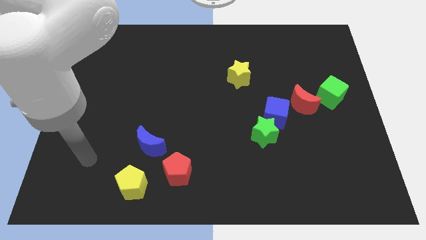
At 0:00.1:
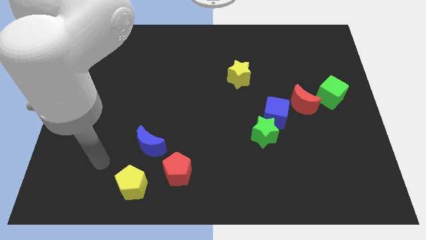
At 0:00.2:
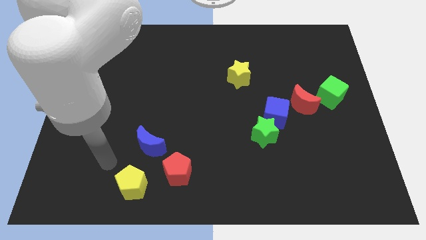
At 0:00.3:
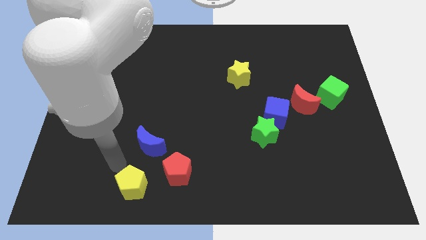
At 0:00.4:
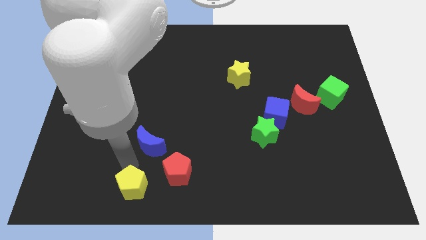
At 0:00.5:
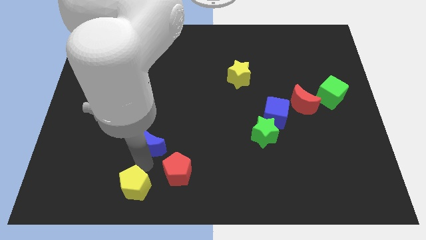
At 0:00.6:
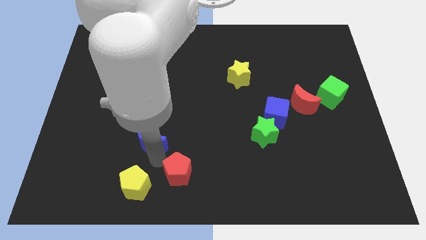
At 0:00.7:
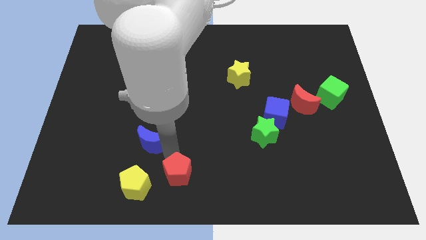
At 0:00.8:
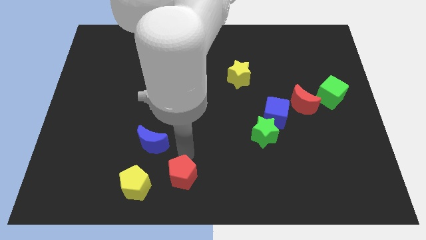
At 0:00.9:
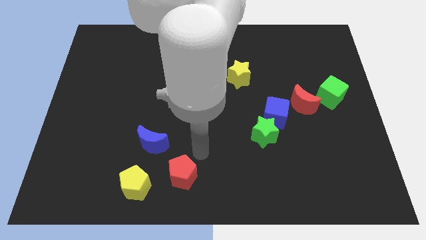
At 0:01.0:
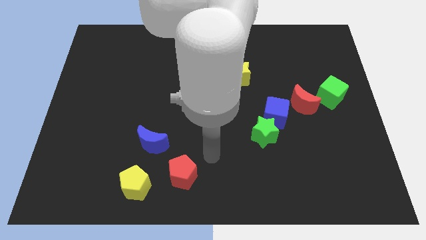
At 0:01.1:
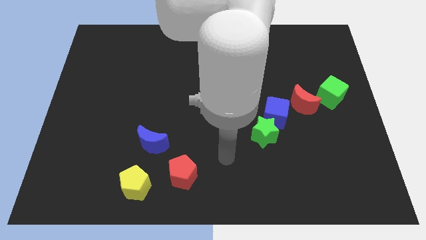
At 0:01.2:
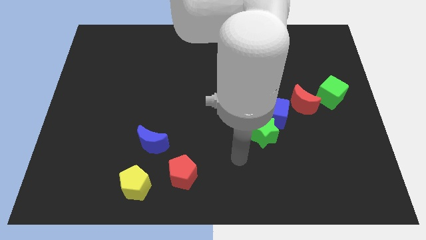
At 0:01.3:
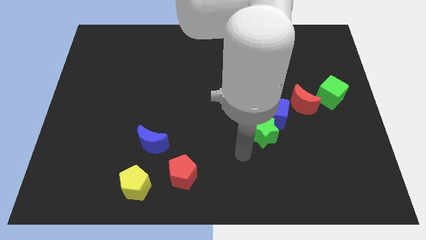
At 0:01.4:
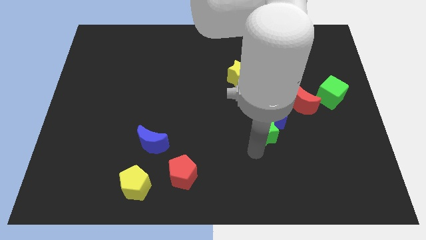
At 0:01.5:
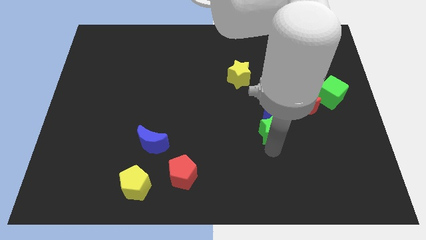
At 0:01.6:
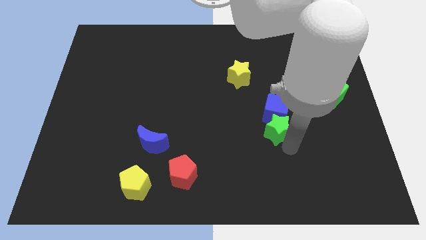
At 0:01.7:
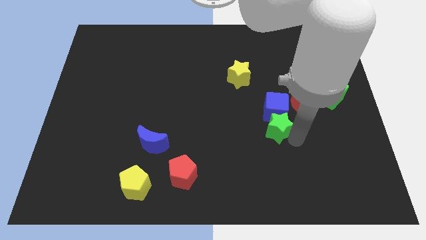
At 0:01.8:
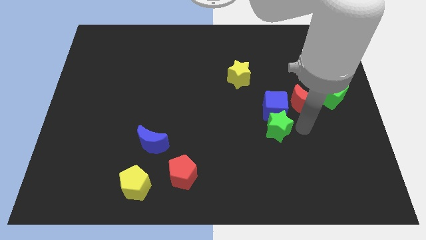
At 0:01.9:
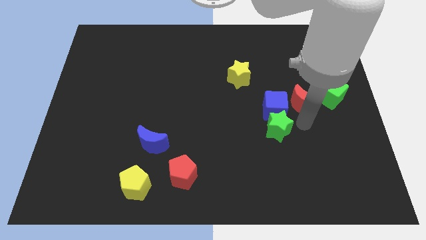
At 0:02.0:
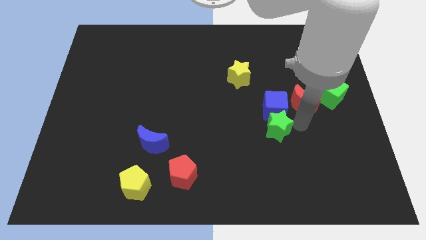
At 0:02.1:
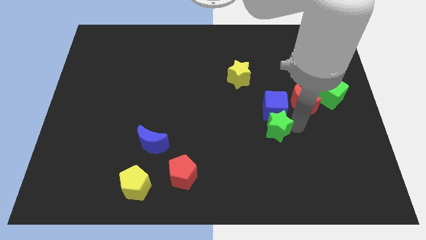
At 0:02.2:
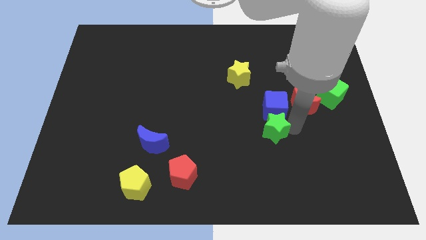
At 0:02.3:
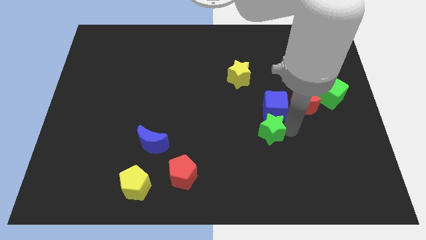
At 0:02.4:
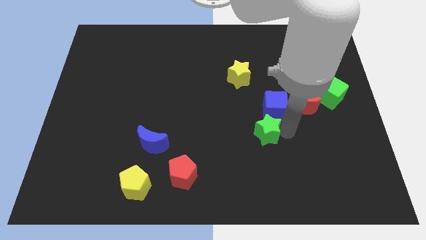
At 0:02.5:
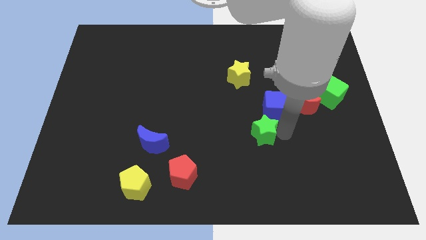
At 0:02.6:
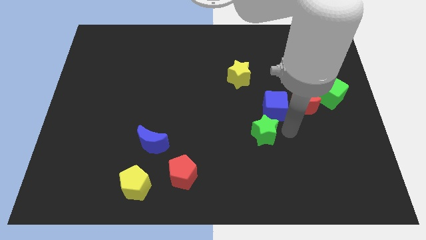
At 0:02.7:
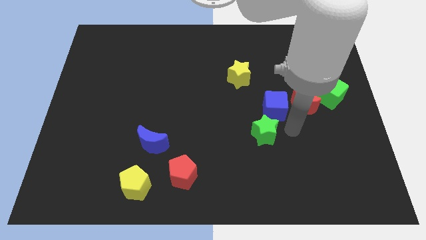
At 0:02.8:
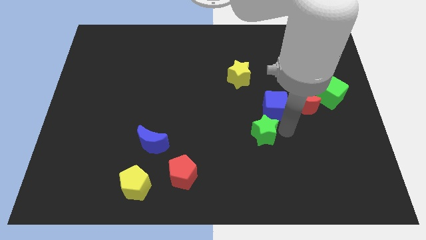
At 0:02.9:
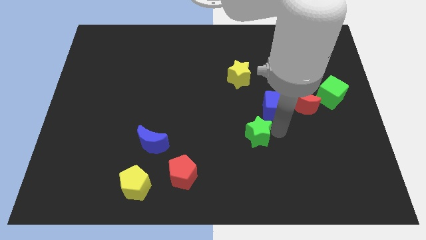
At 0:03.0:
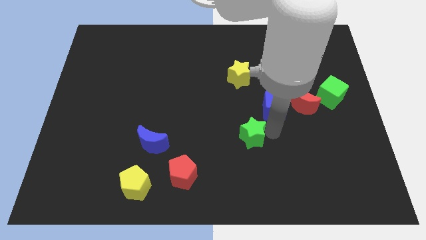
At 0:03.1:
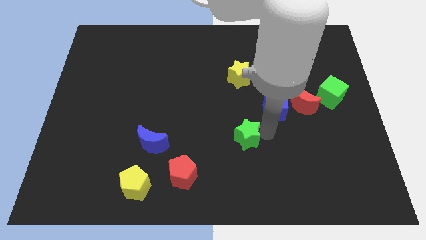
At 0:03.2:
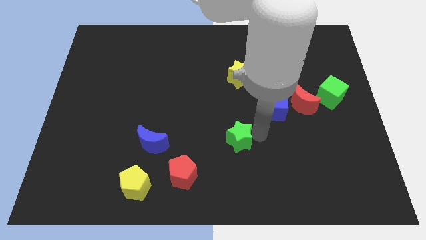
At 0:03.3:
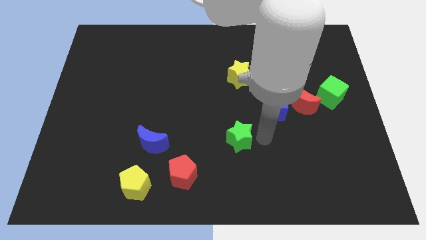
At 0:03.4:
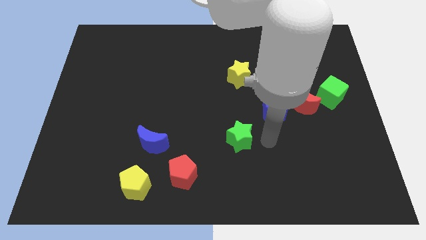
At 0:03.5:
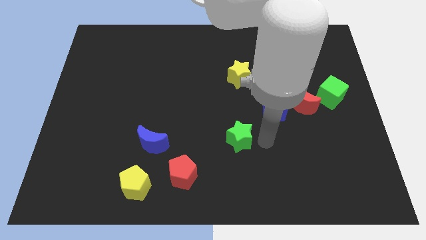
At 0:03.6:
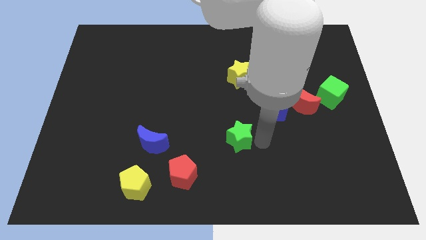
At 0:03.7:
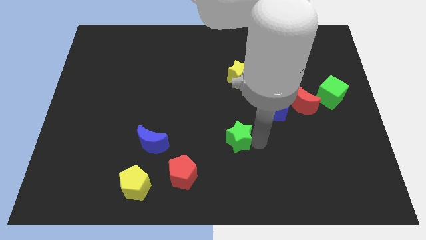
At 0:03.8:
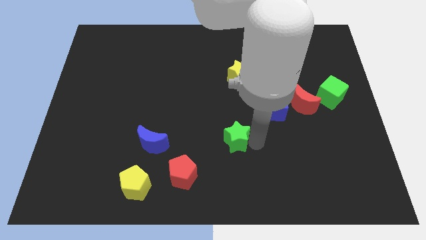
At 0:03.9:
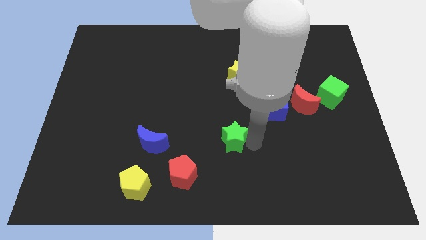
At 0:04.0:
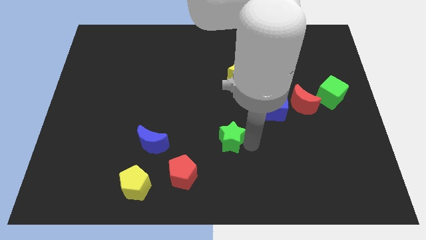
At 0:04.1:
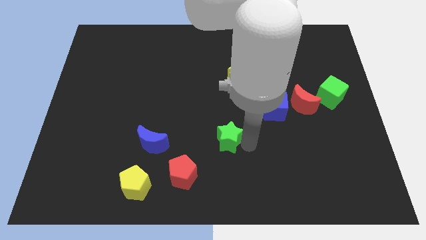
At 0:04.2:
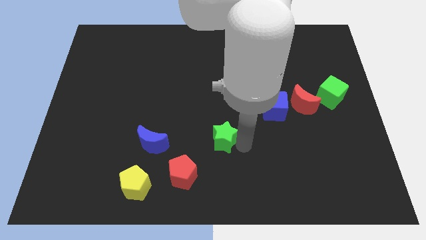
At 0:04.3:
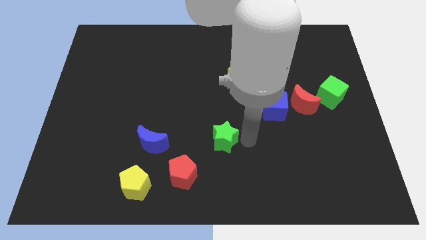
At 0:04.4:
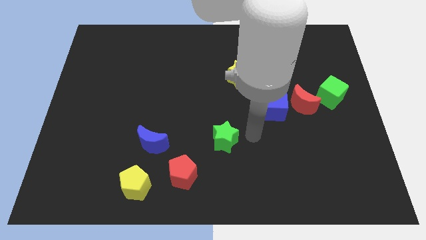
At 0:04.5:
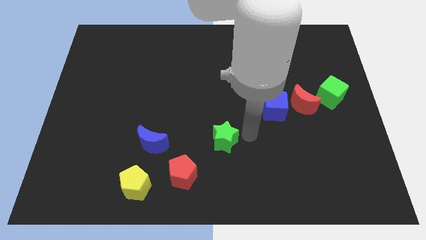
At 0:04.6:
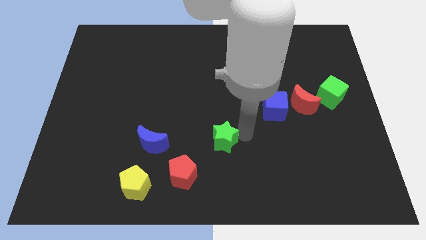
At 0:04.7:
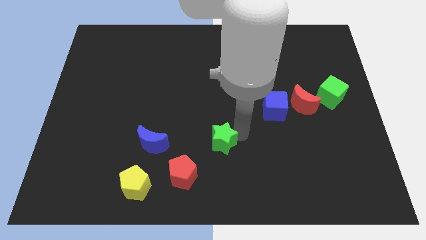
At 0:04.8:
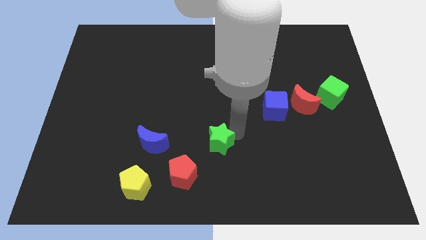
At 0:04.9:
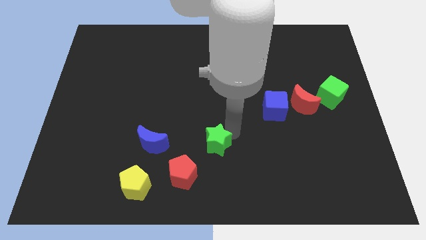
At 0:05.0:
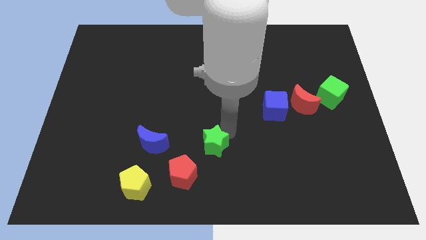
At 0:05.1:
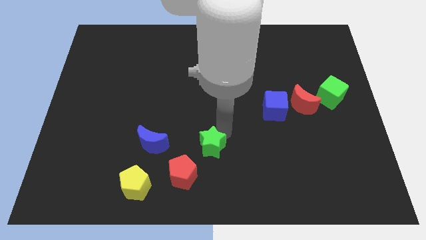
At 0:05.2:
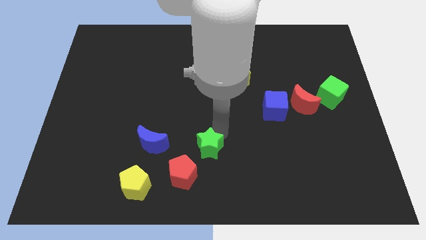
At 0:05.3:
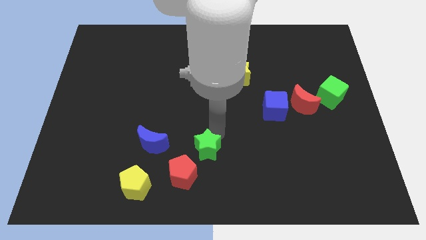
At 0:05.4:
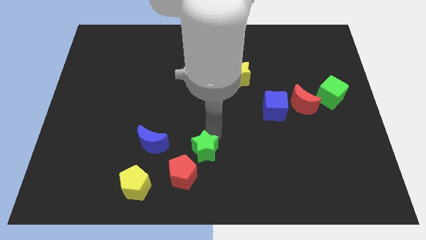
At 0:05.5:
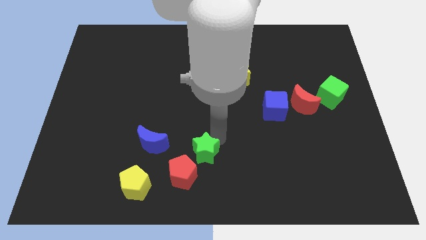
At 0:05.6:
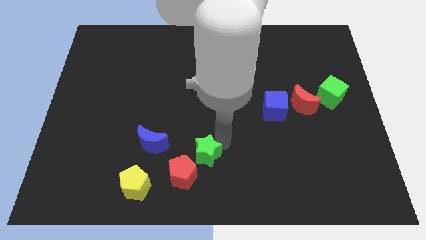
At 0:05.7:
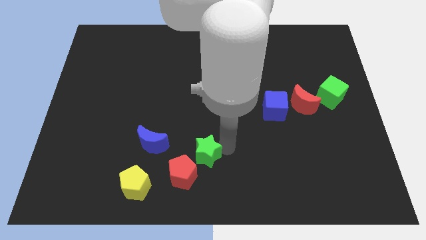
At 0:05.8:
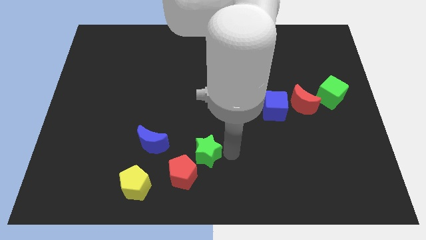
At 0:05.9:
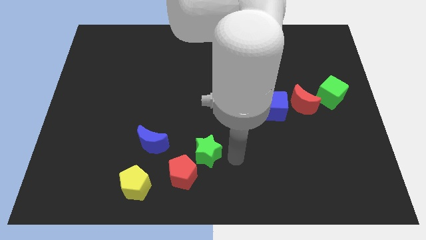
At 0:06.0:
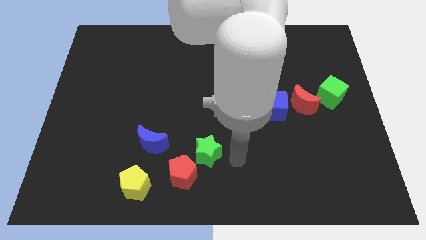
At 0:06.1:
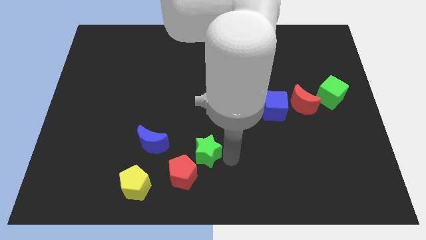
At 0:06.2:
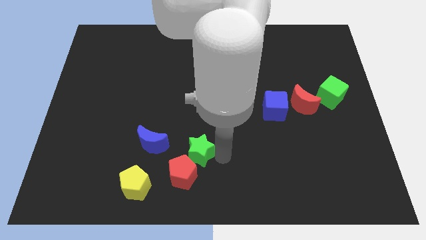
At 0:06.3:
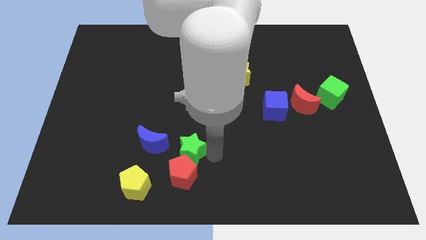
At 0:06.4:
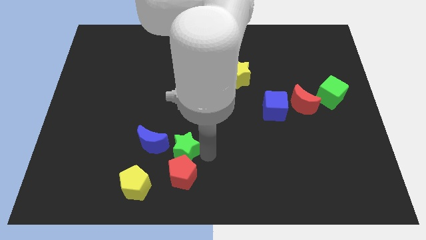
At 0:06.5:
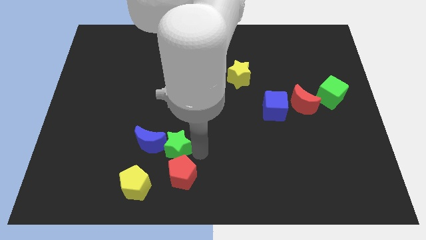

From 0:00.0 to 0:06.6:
put the green star to the blue moon
